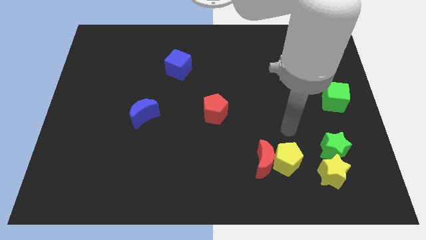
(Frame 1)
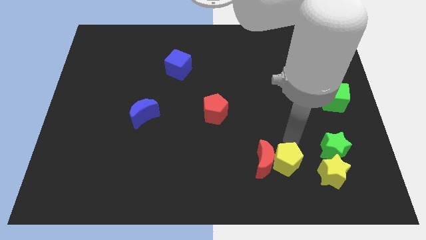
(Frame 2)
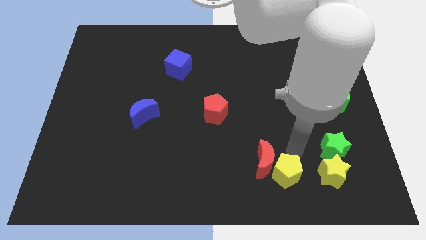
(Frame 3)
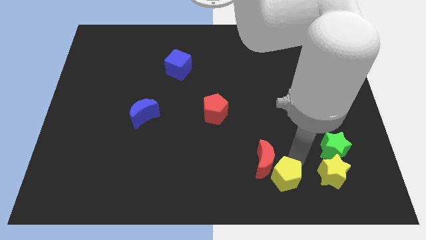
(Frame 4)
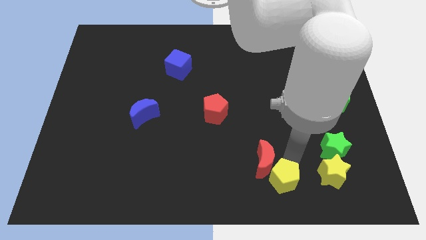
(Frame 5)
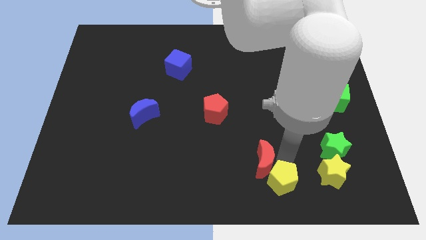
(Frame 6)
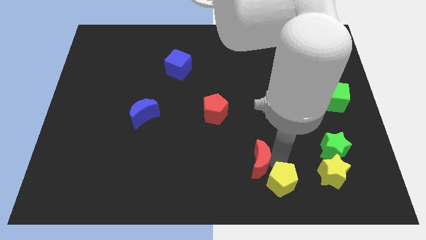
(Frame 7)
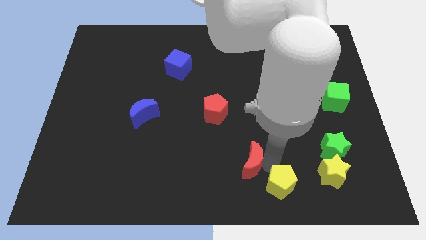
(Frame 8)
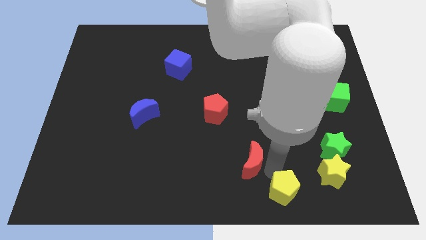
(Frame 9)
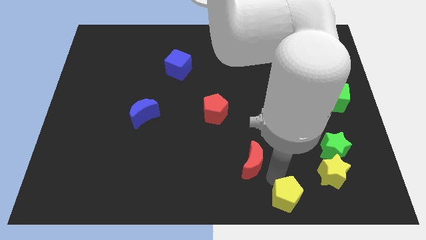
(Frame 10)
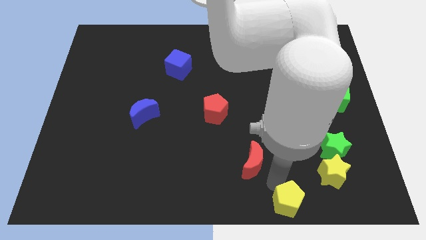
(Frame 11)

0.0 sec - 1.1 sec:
move the red moon away from the yellow pentagon

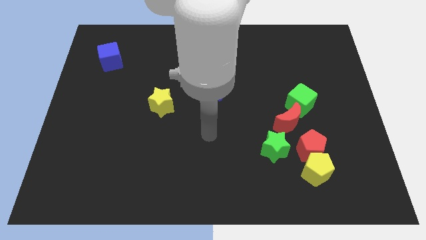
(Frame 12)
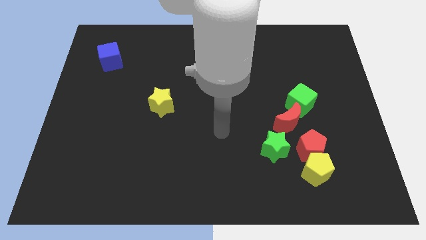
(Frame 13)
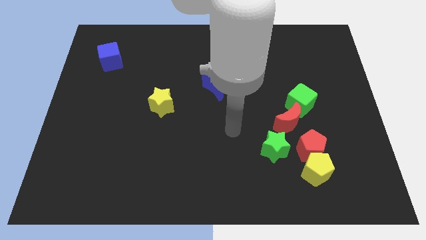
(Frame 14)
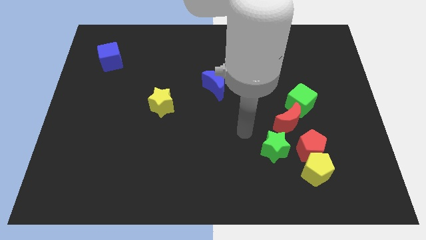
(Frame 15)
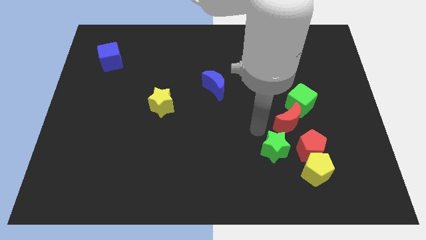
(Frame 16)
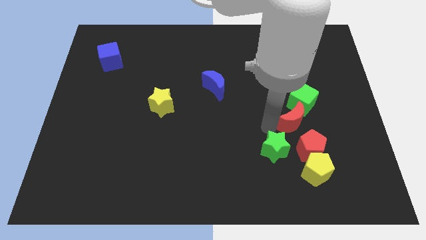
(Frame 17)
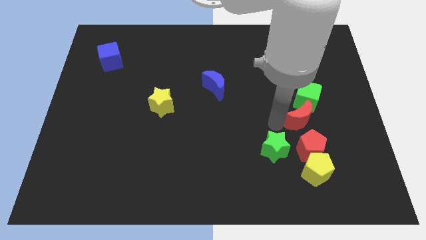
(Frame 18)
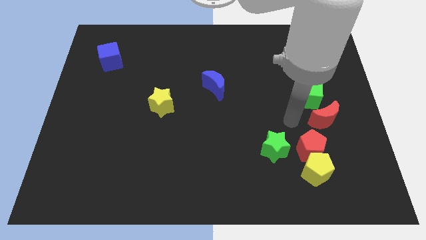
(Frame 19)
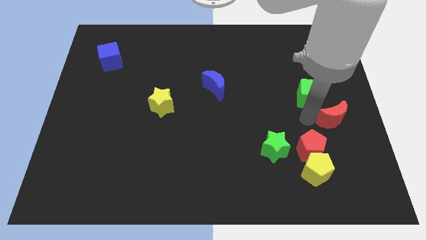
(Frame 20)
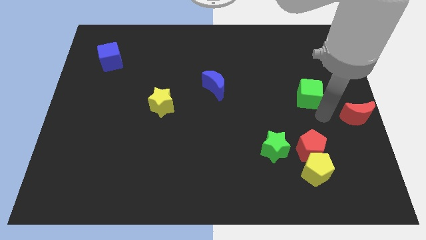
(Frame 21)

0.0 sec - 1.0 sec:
move the green cube away from the red moon

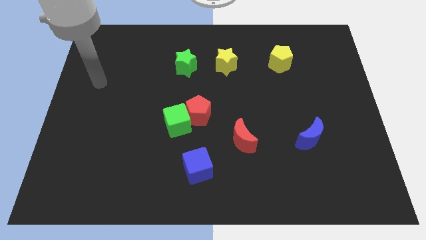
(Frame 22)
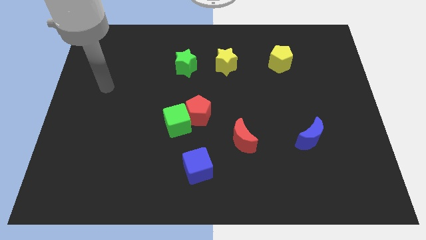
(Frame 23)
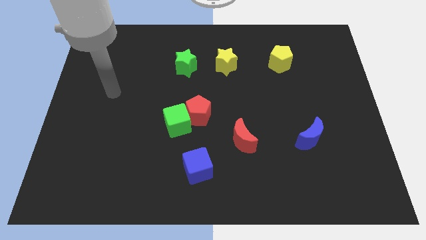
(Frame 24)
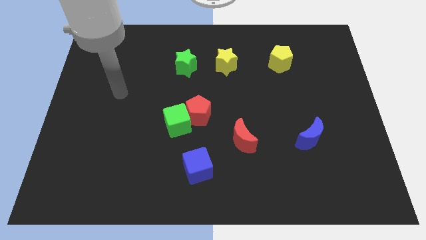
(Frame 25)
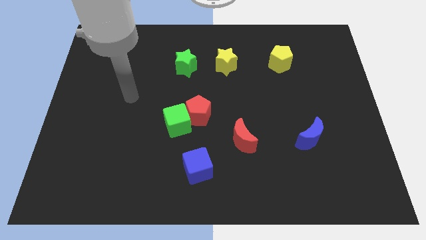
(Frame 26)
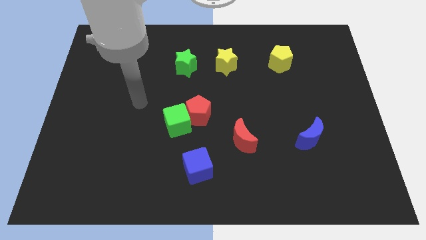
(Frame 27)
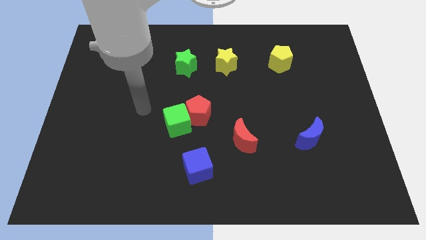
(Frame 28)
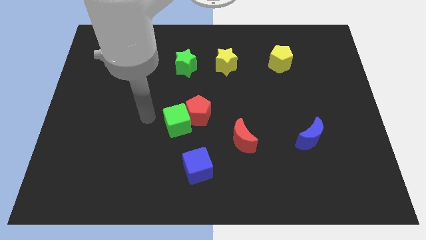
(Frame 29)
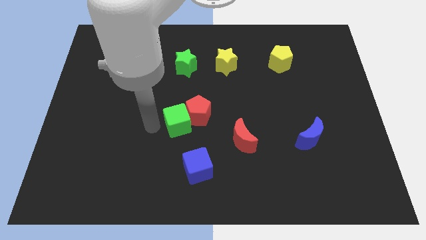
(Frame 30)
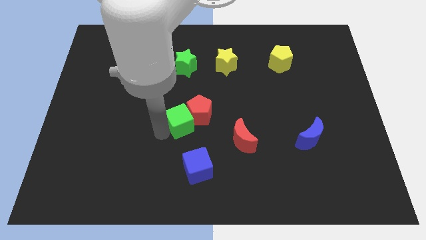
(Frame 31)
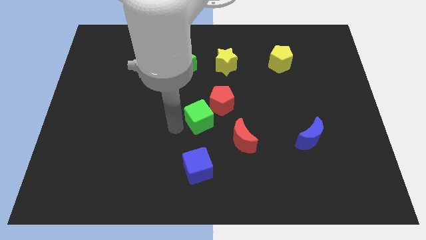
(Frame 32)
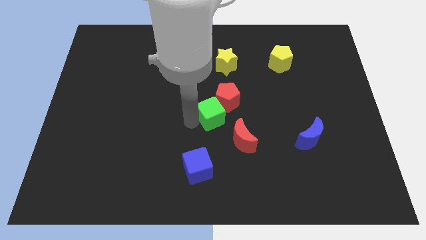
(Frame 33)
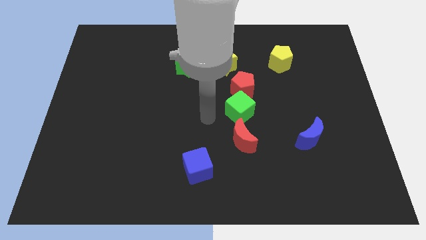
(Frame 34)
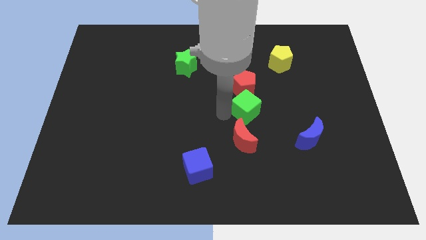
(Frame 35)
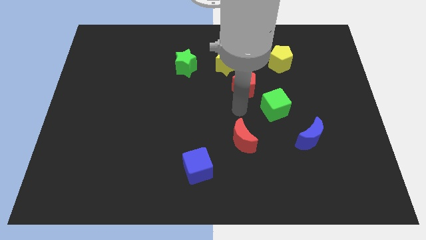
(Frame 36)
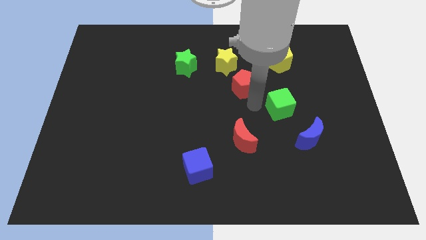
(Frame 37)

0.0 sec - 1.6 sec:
separate the red pentagon from the green cube

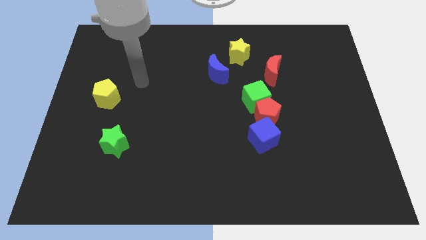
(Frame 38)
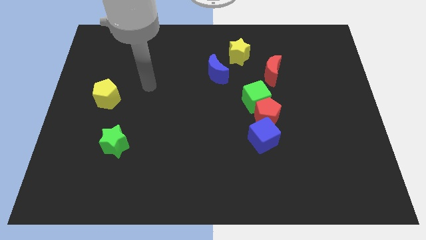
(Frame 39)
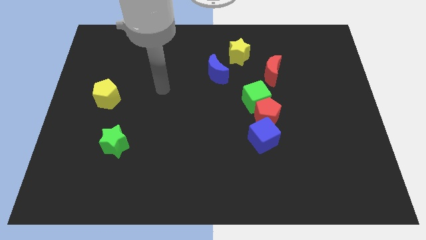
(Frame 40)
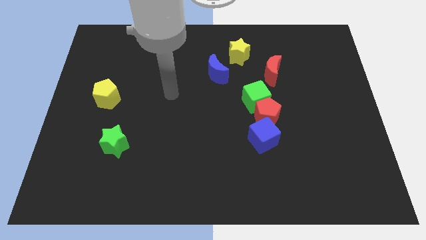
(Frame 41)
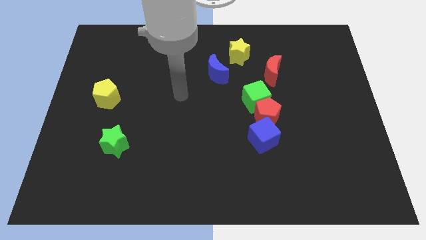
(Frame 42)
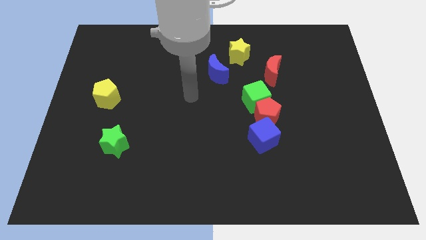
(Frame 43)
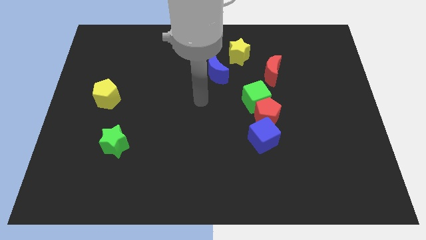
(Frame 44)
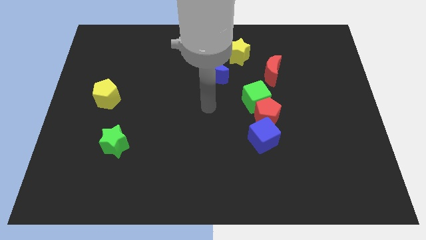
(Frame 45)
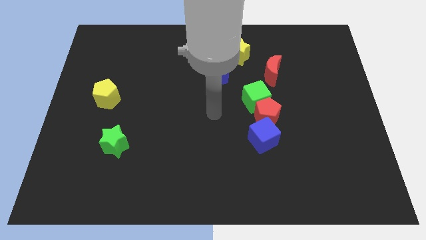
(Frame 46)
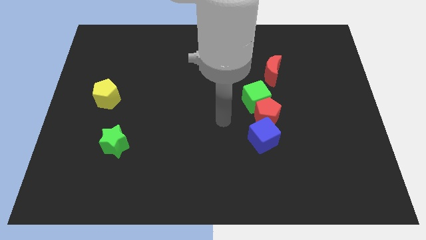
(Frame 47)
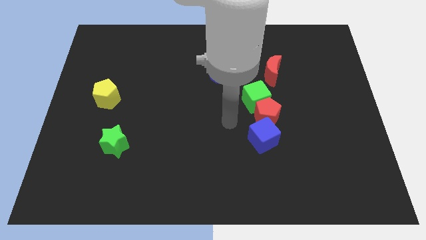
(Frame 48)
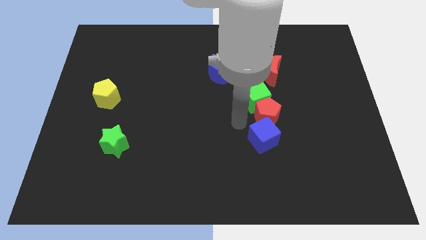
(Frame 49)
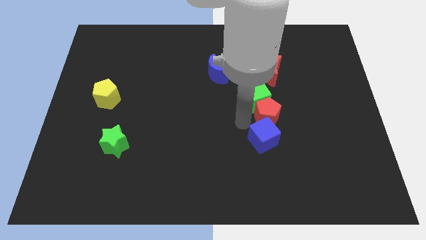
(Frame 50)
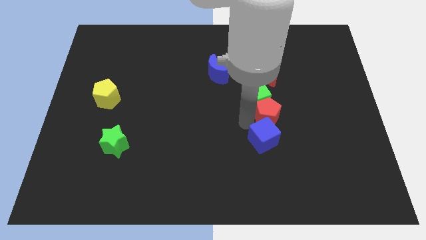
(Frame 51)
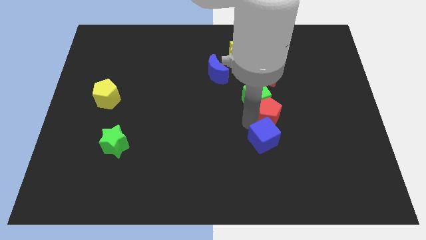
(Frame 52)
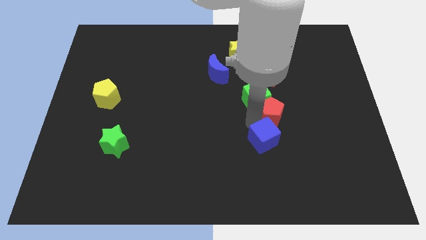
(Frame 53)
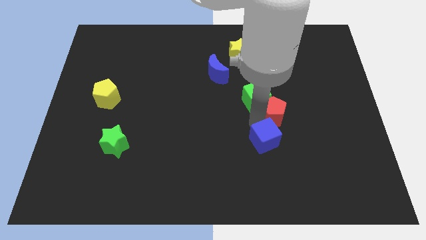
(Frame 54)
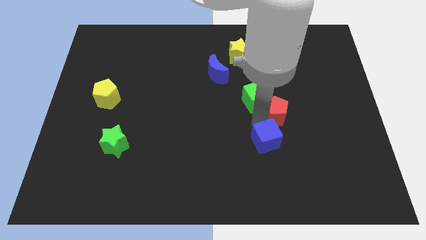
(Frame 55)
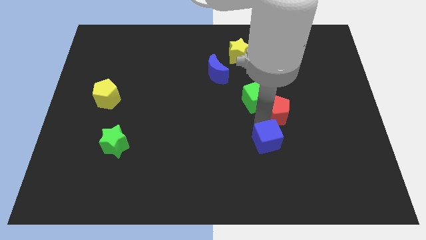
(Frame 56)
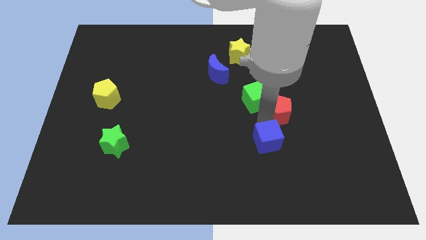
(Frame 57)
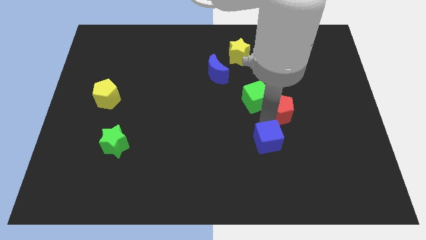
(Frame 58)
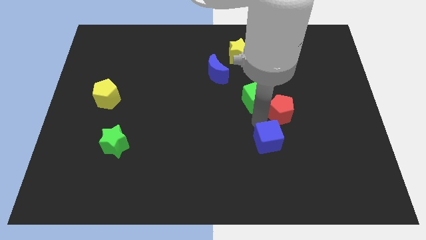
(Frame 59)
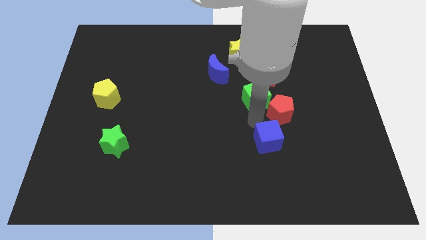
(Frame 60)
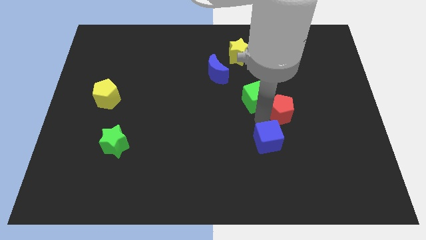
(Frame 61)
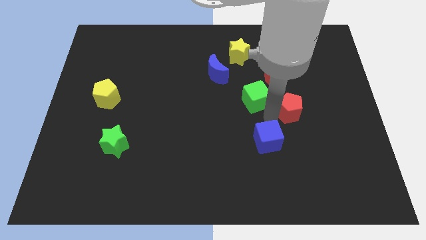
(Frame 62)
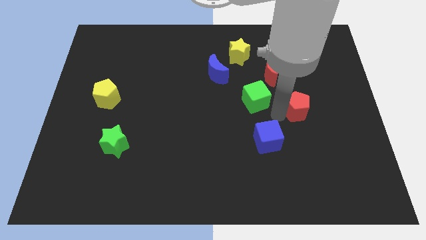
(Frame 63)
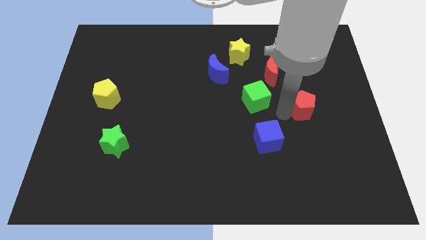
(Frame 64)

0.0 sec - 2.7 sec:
pull the red pentagon apart from the green cube and blue cube

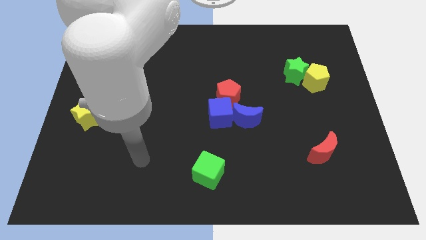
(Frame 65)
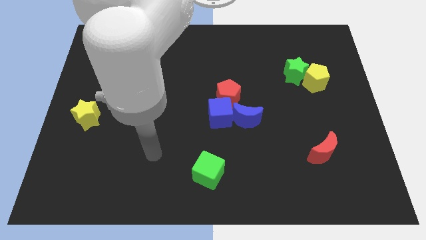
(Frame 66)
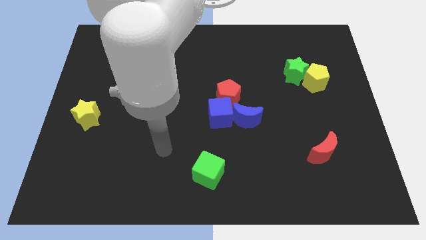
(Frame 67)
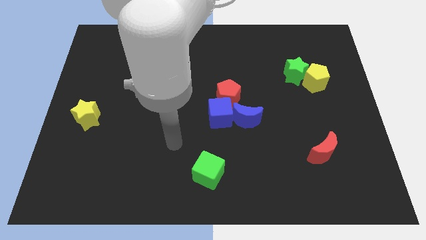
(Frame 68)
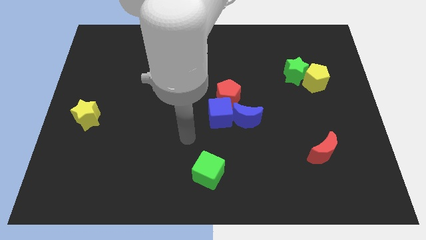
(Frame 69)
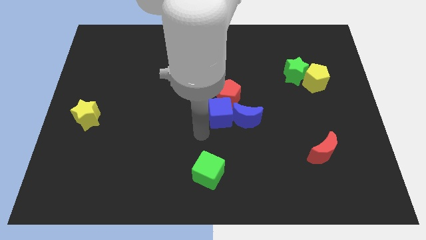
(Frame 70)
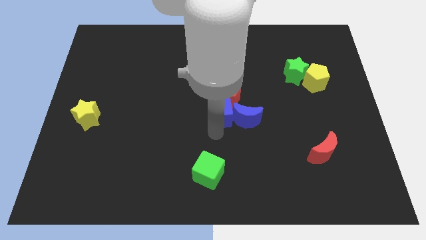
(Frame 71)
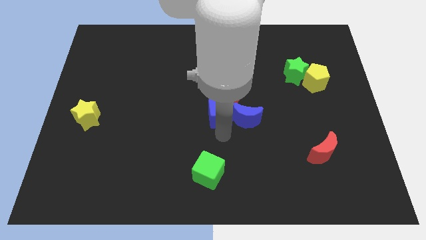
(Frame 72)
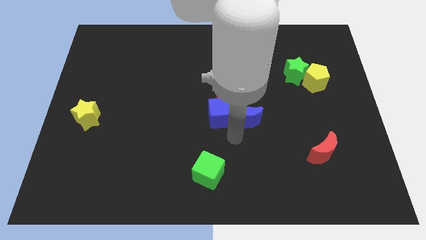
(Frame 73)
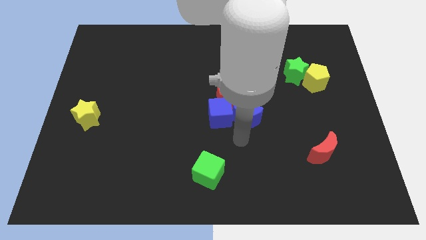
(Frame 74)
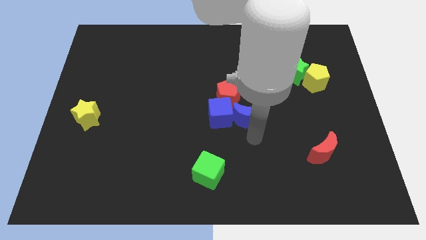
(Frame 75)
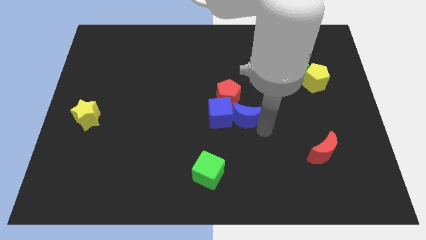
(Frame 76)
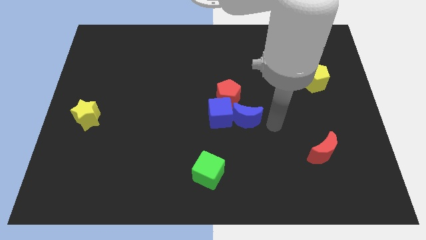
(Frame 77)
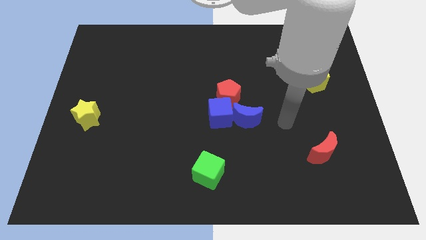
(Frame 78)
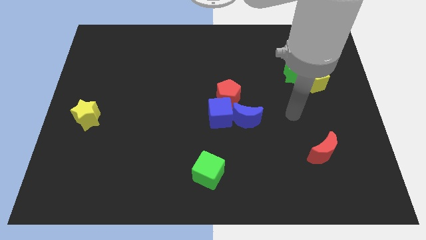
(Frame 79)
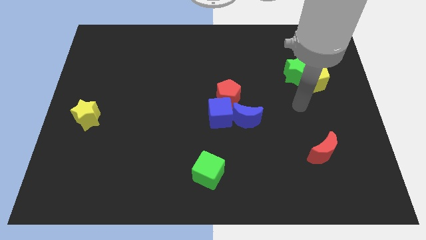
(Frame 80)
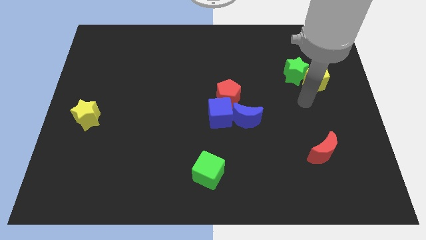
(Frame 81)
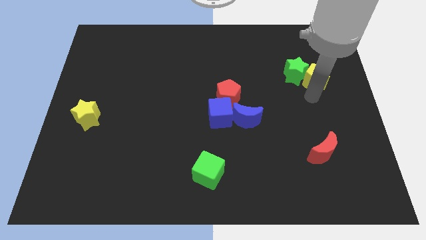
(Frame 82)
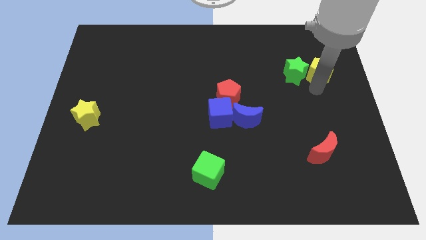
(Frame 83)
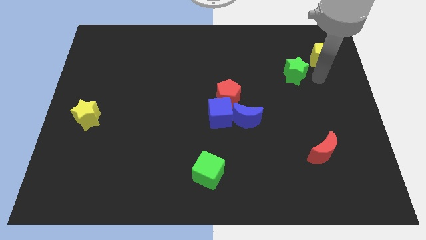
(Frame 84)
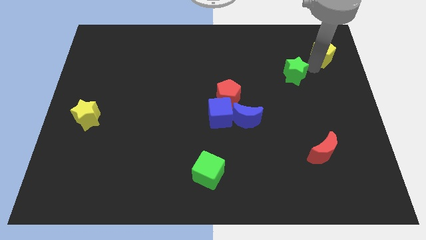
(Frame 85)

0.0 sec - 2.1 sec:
move the green star away from the yellow pentagon

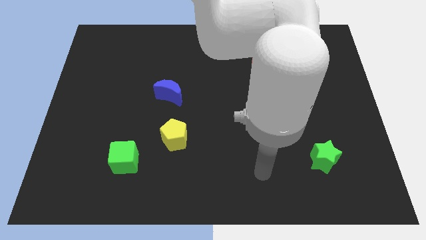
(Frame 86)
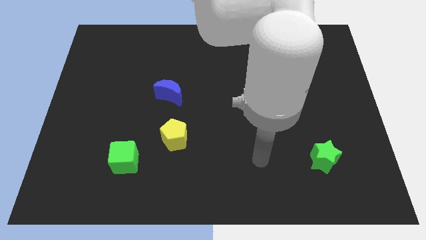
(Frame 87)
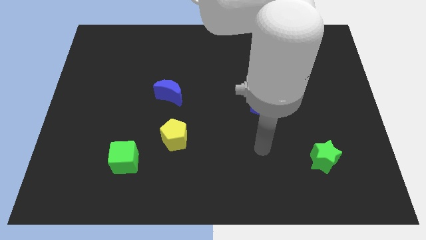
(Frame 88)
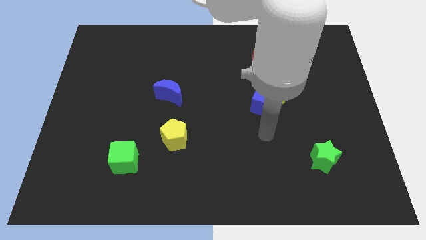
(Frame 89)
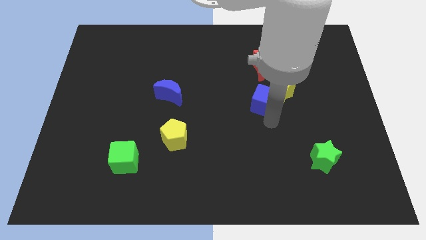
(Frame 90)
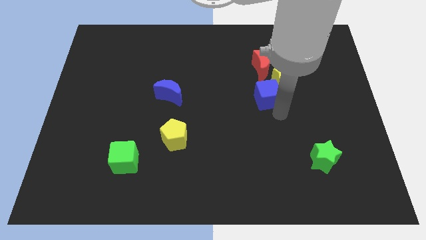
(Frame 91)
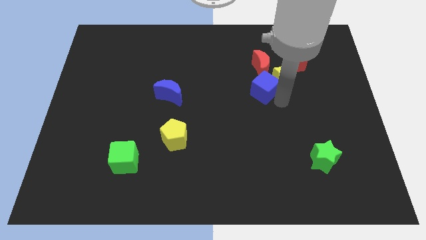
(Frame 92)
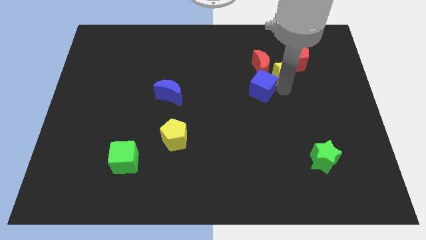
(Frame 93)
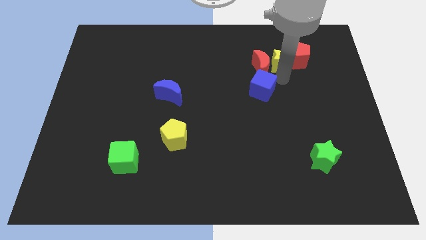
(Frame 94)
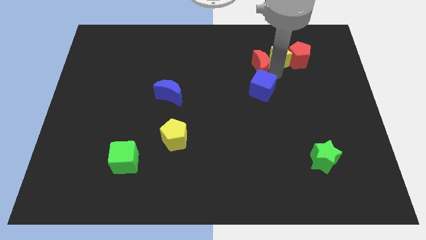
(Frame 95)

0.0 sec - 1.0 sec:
separate the blue cube from the yellow star
